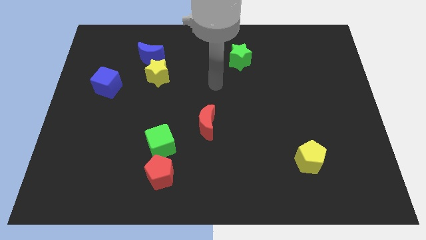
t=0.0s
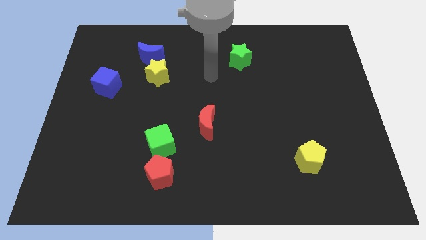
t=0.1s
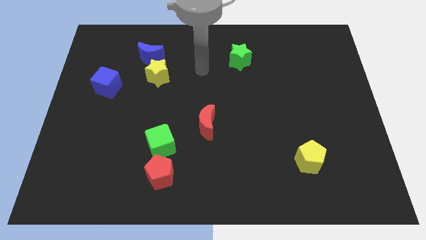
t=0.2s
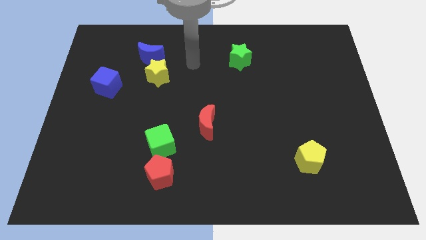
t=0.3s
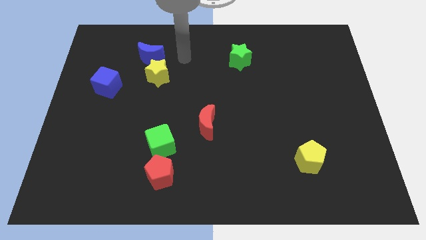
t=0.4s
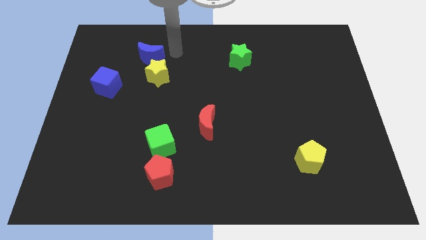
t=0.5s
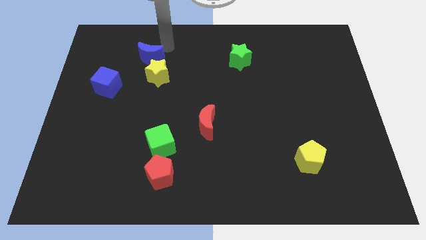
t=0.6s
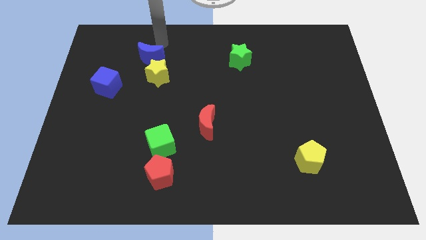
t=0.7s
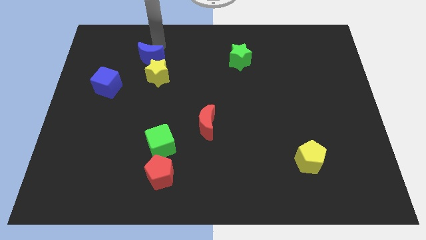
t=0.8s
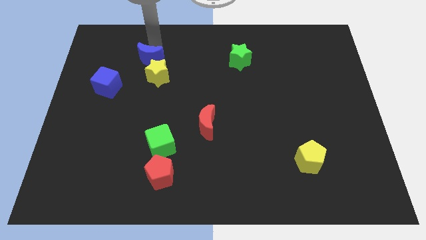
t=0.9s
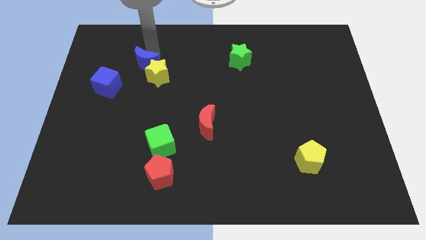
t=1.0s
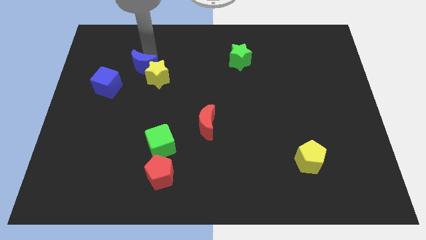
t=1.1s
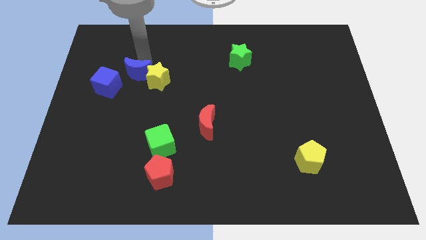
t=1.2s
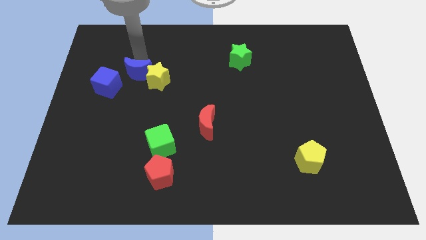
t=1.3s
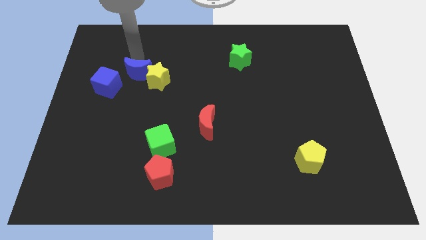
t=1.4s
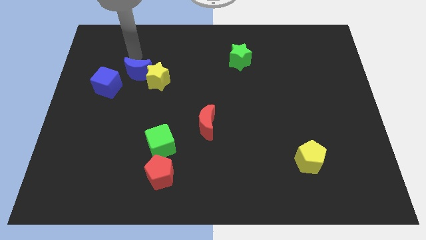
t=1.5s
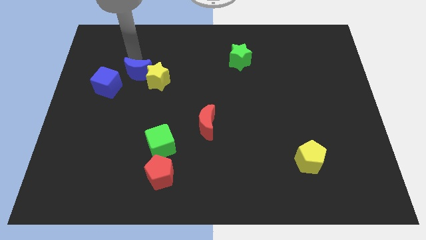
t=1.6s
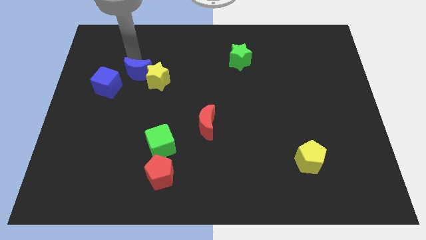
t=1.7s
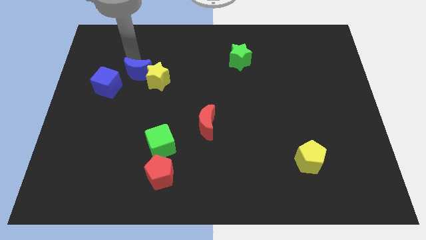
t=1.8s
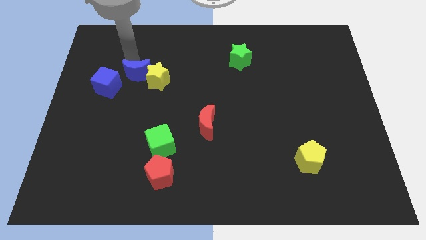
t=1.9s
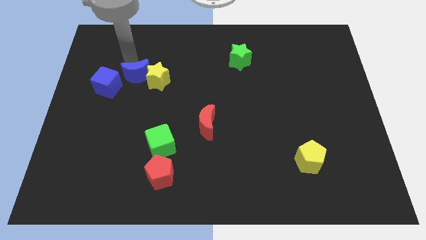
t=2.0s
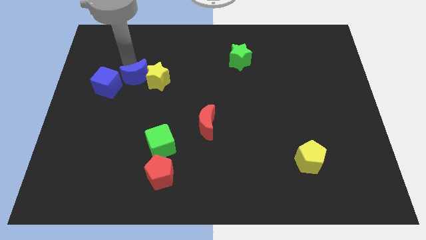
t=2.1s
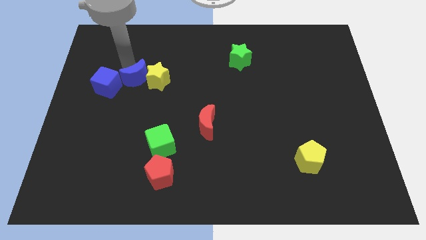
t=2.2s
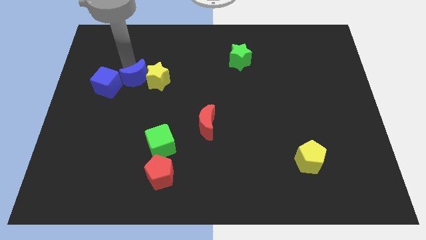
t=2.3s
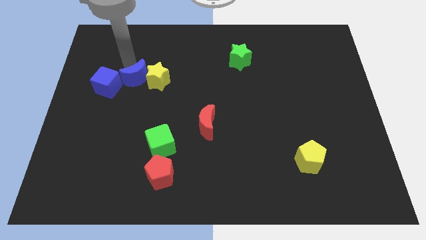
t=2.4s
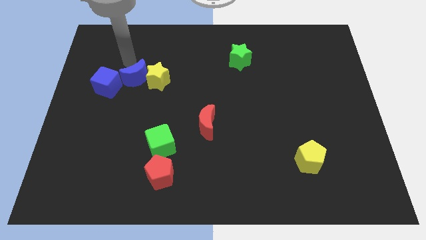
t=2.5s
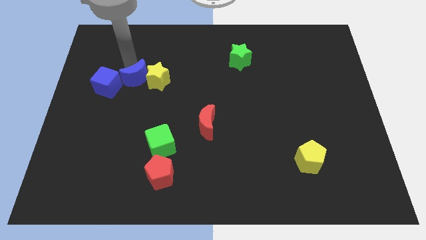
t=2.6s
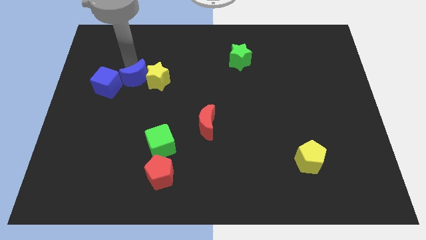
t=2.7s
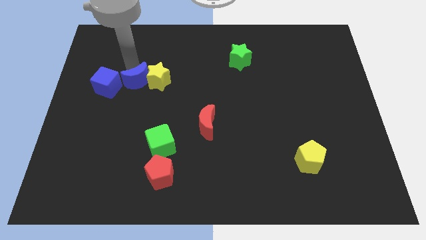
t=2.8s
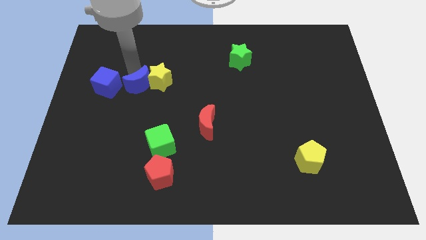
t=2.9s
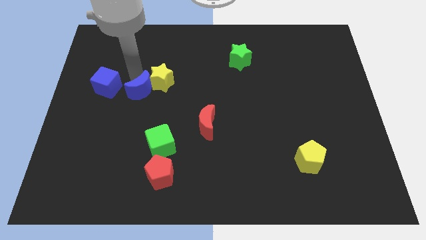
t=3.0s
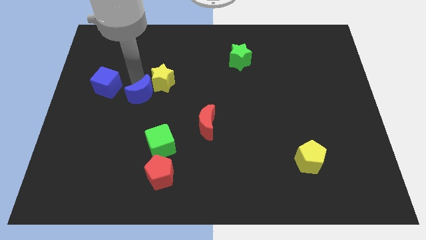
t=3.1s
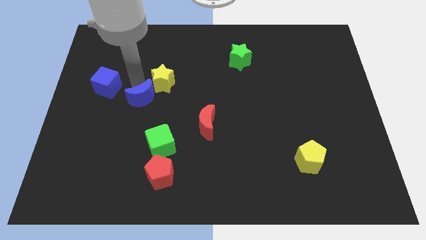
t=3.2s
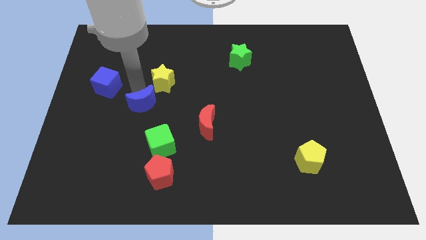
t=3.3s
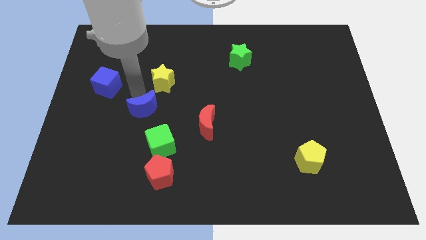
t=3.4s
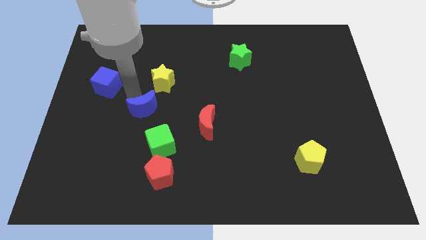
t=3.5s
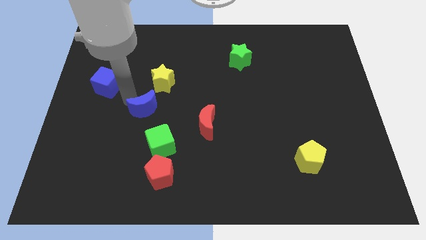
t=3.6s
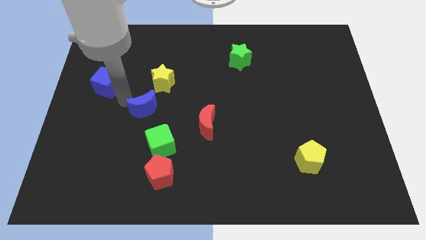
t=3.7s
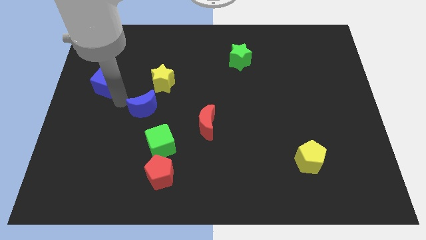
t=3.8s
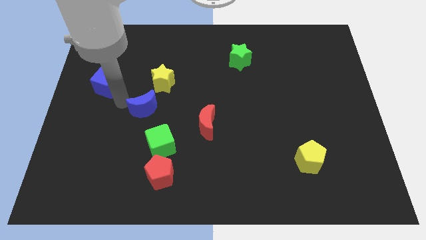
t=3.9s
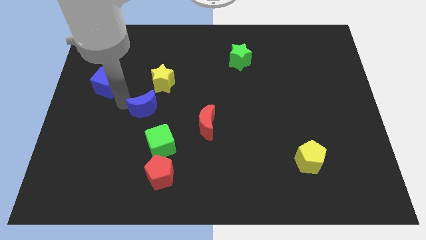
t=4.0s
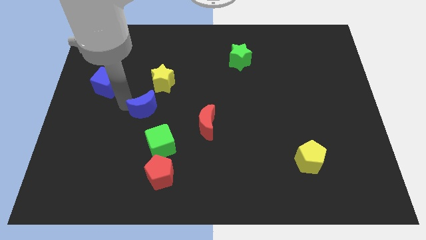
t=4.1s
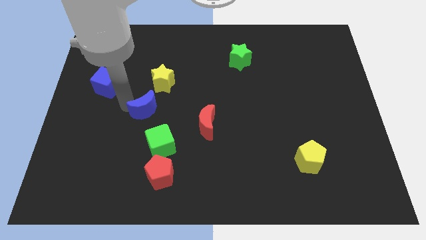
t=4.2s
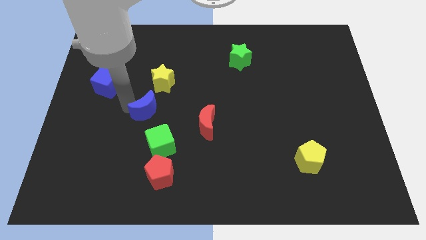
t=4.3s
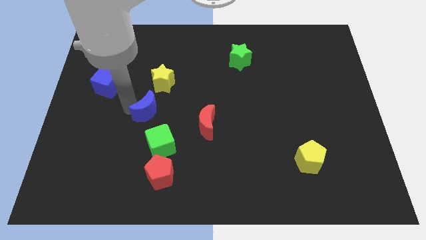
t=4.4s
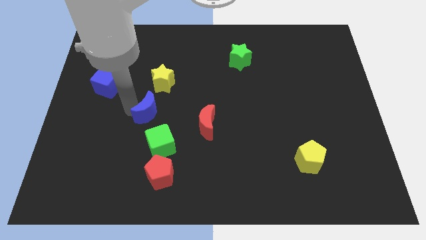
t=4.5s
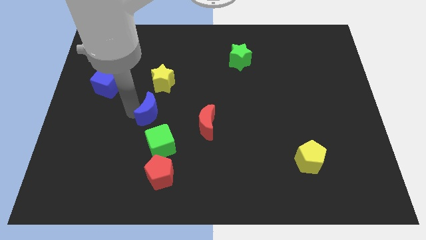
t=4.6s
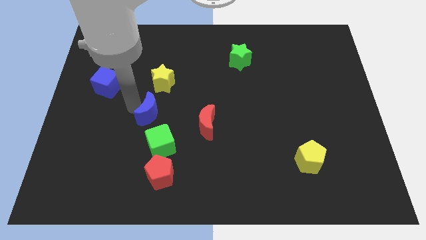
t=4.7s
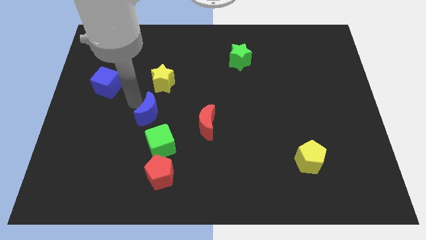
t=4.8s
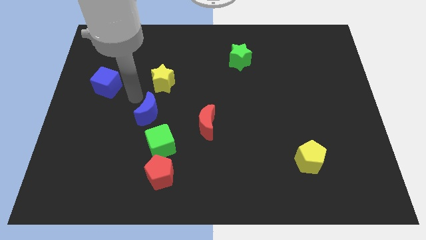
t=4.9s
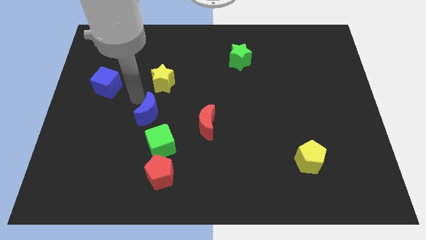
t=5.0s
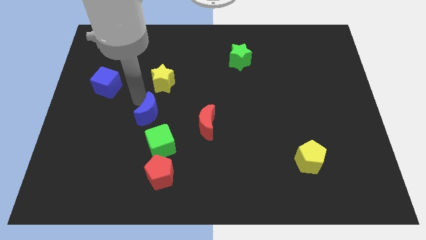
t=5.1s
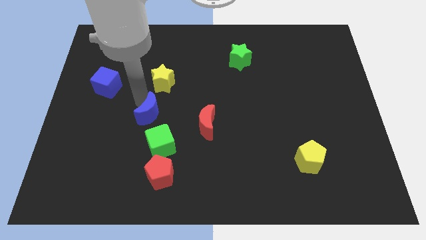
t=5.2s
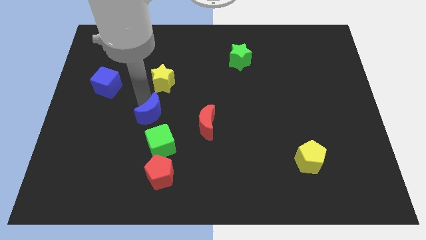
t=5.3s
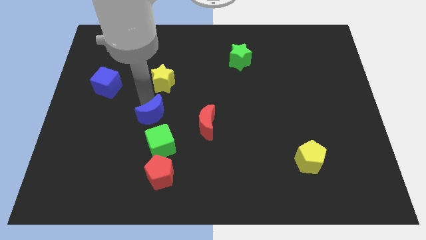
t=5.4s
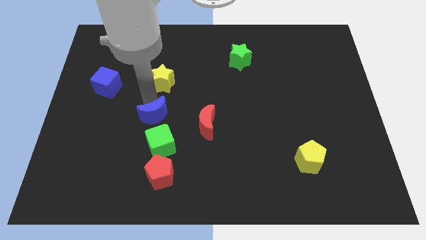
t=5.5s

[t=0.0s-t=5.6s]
move the blue moon to the top side of the red pentagon

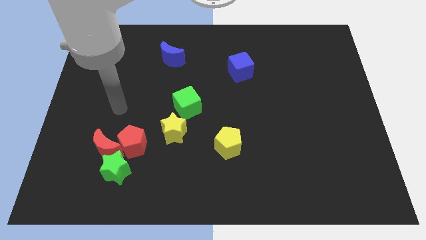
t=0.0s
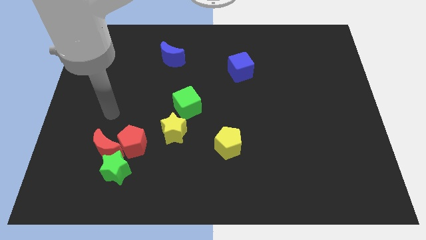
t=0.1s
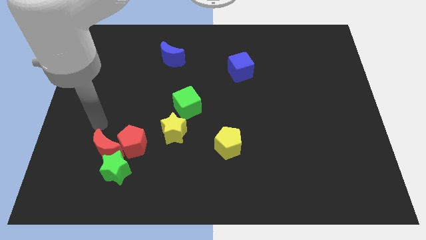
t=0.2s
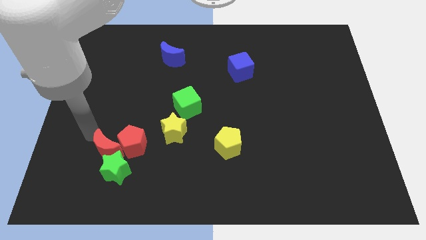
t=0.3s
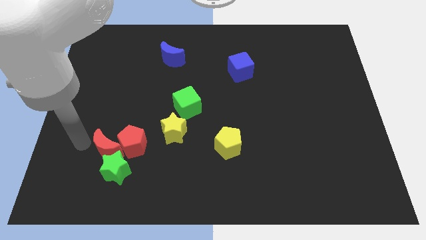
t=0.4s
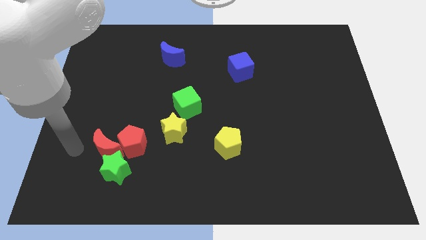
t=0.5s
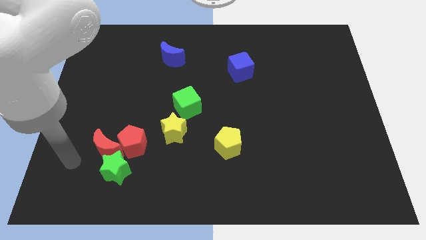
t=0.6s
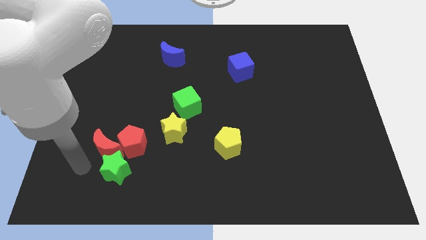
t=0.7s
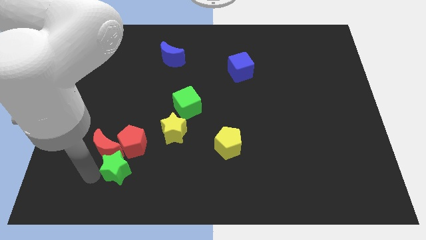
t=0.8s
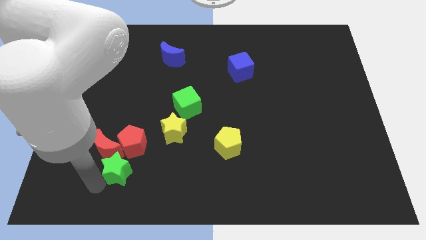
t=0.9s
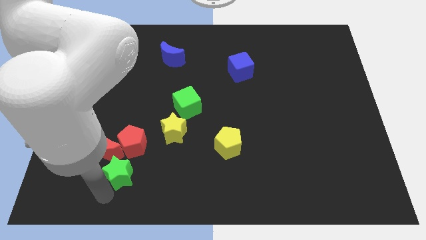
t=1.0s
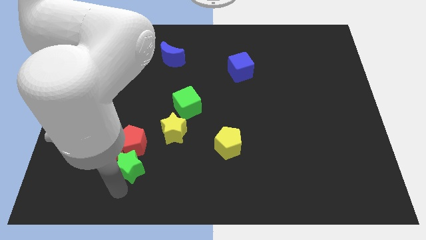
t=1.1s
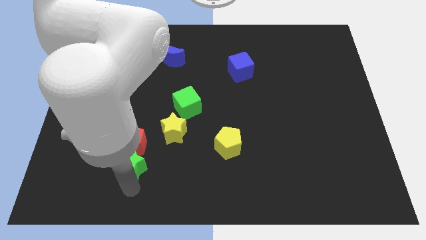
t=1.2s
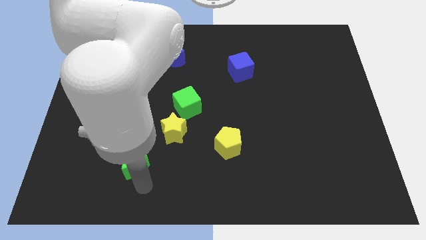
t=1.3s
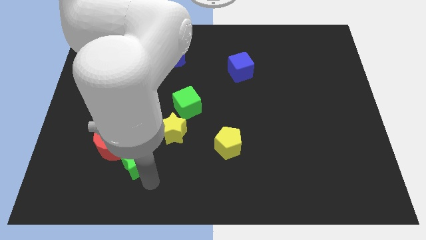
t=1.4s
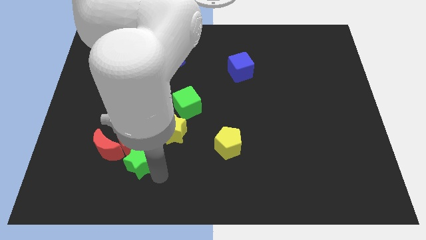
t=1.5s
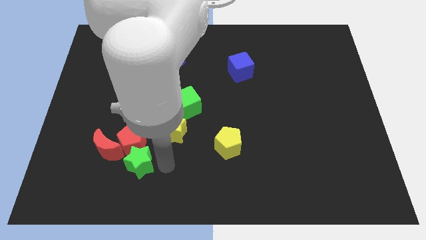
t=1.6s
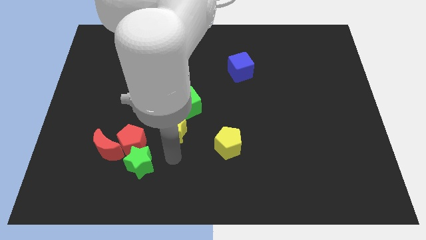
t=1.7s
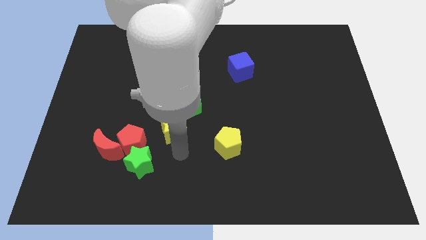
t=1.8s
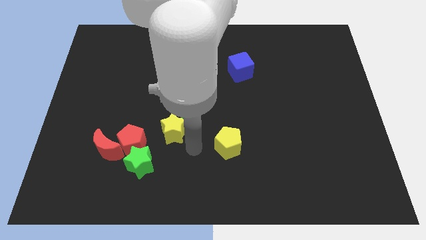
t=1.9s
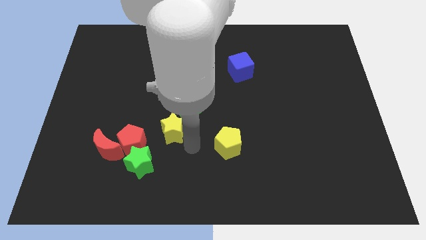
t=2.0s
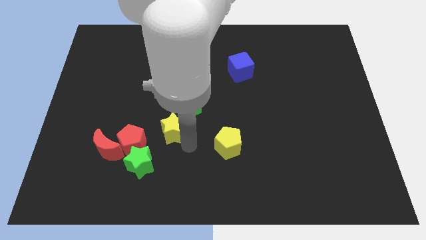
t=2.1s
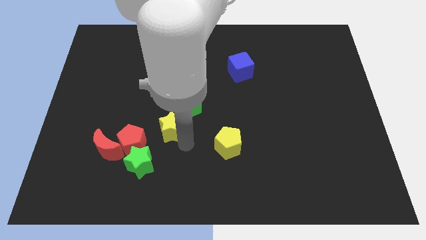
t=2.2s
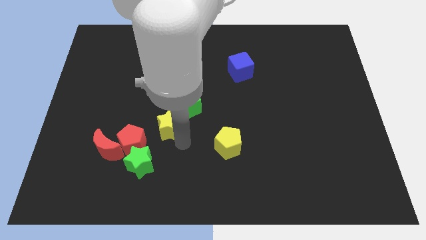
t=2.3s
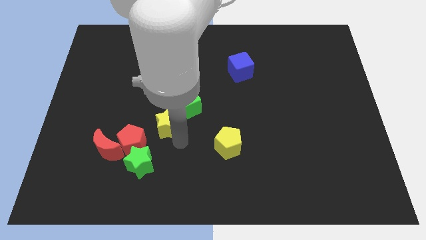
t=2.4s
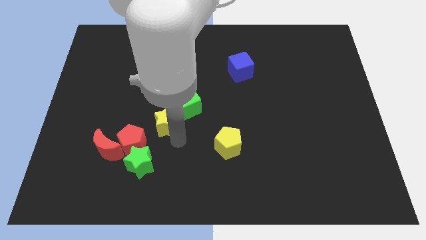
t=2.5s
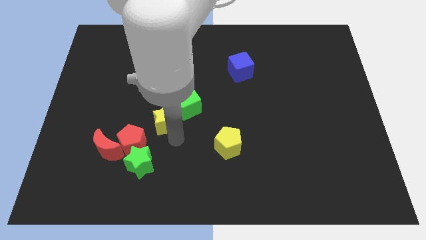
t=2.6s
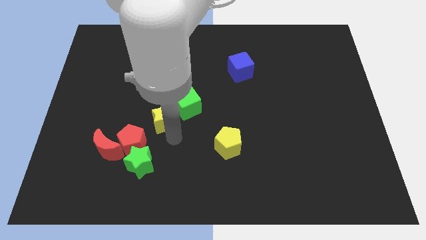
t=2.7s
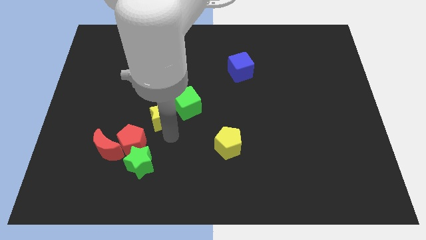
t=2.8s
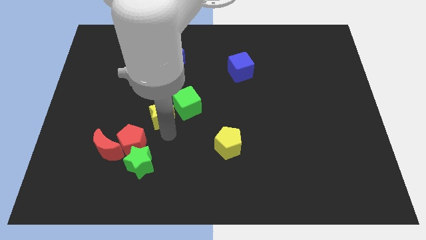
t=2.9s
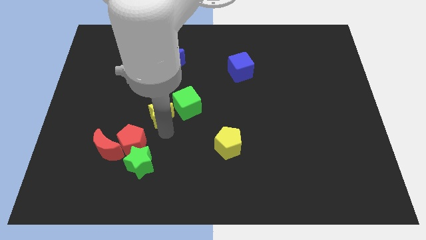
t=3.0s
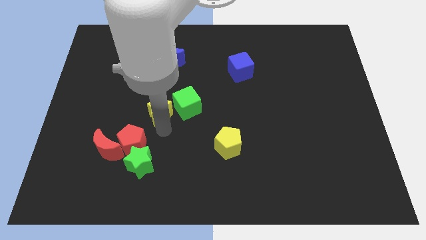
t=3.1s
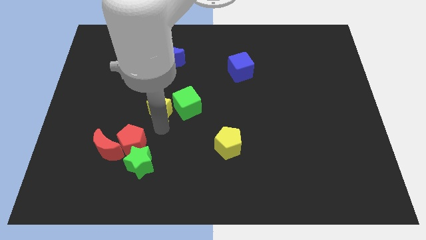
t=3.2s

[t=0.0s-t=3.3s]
put the yellow star to the top side of the red pentagon
